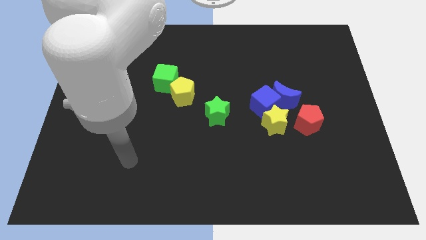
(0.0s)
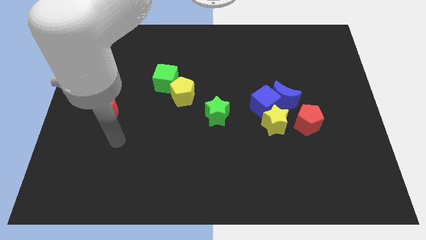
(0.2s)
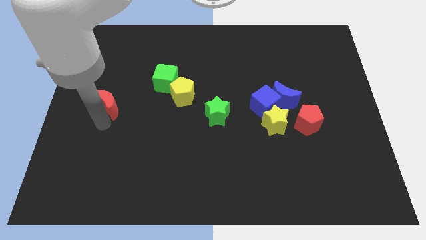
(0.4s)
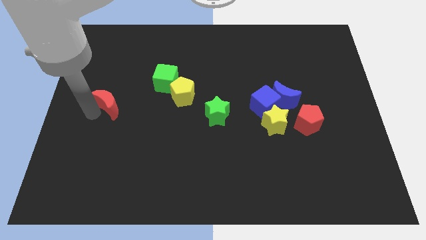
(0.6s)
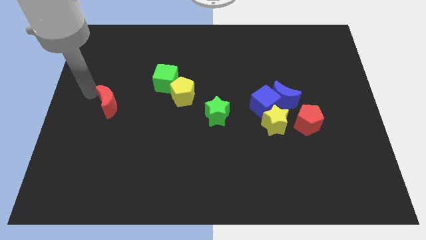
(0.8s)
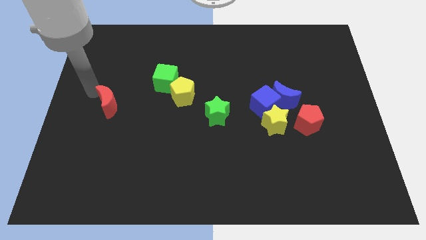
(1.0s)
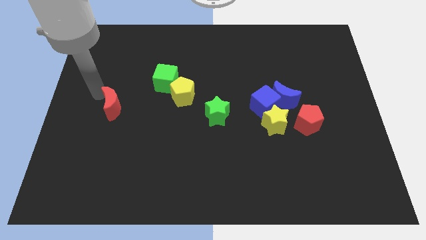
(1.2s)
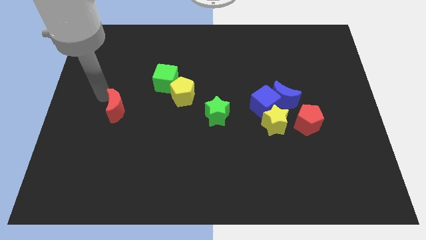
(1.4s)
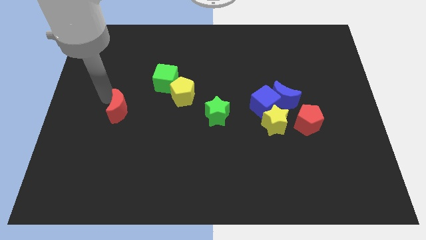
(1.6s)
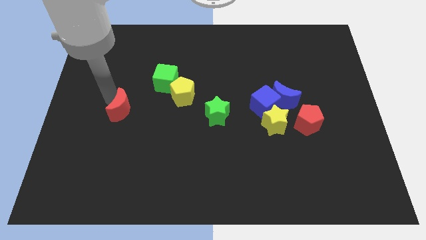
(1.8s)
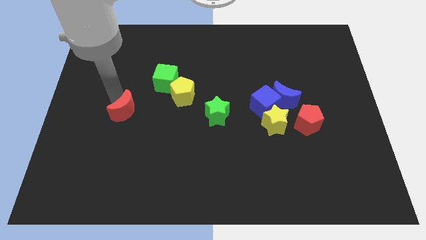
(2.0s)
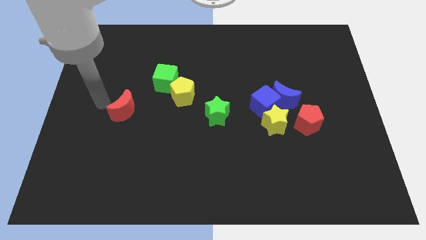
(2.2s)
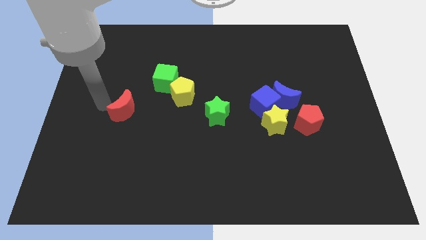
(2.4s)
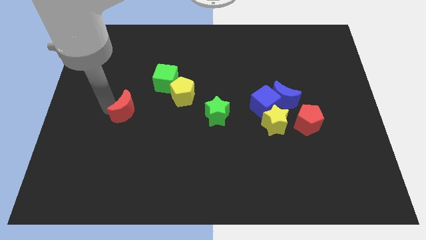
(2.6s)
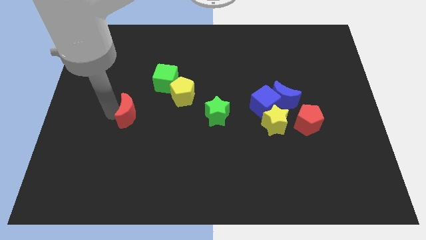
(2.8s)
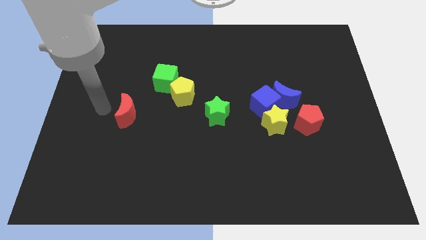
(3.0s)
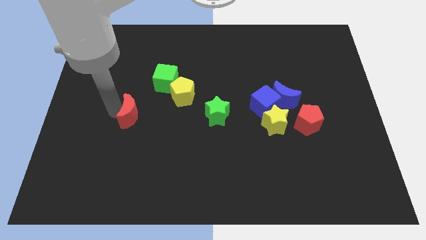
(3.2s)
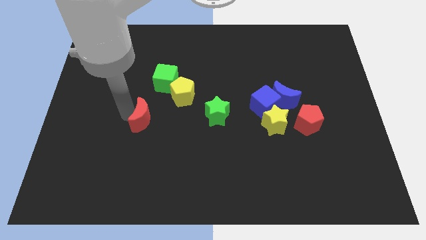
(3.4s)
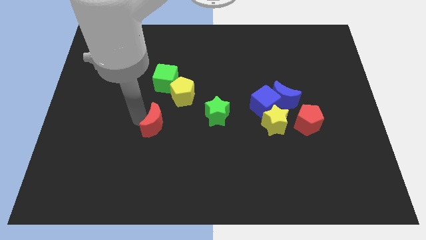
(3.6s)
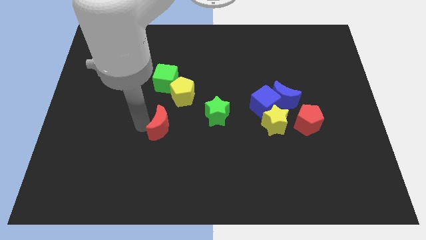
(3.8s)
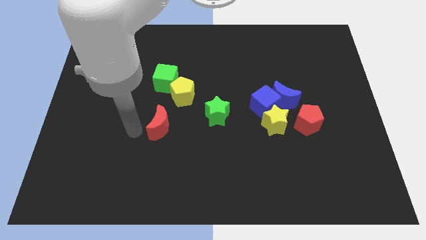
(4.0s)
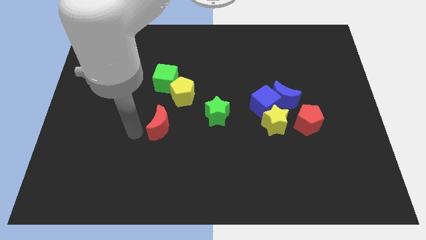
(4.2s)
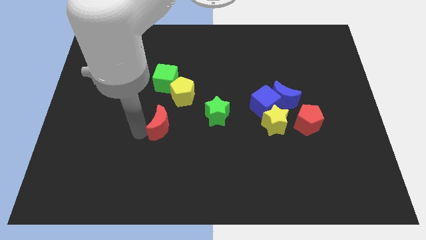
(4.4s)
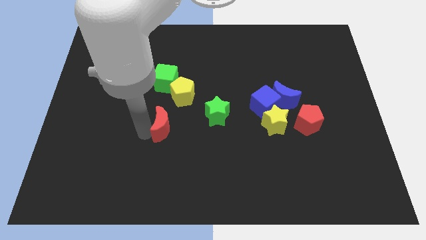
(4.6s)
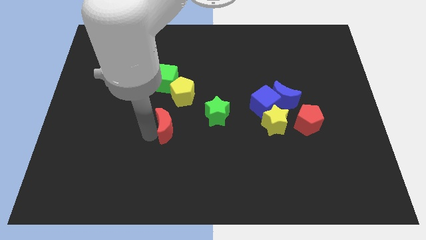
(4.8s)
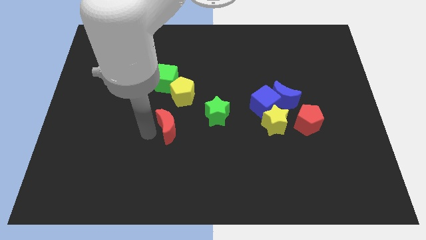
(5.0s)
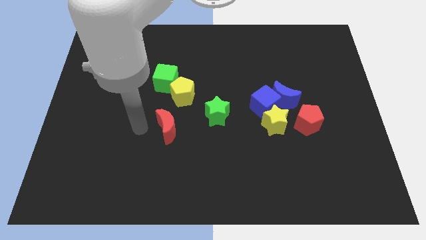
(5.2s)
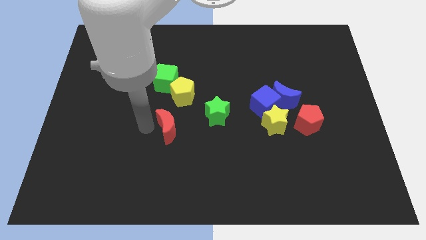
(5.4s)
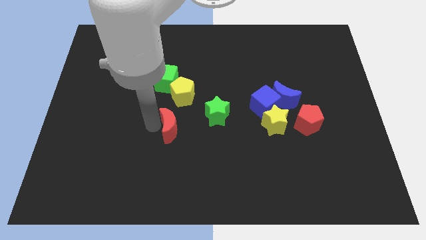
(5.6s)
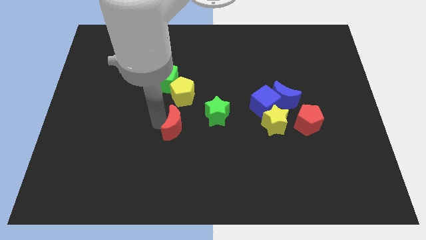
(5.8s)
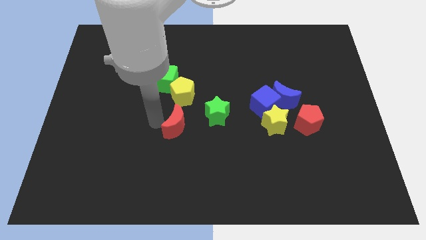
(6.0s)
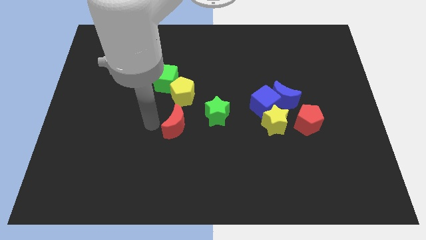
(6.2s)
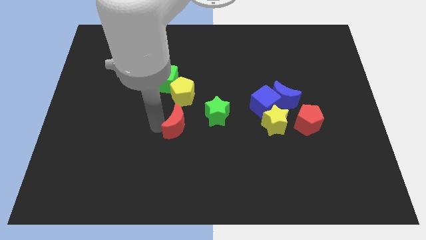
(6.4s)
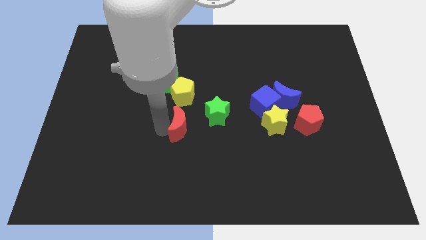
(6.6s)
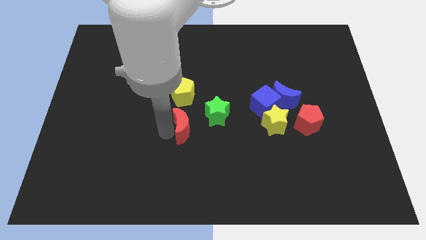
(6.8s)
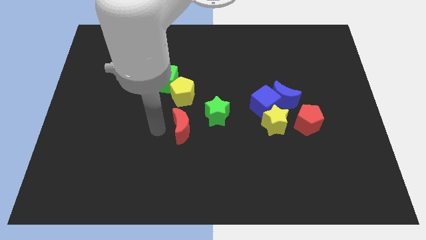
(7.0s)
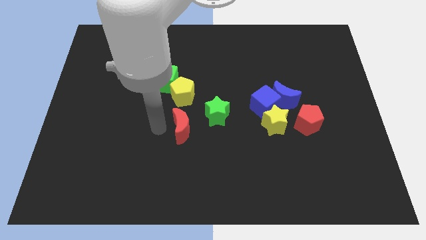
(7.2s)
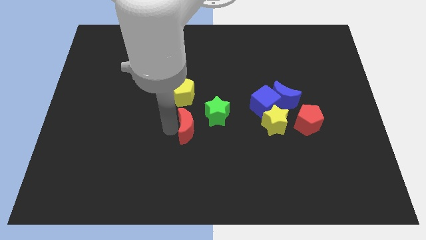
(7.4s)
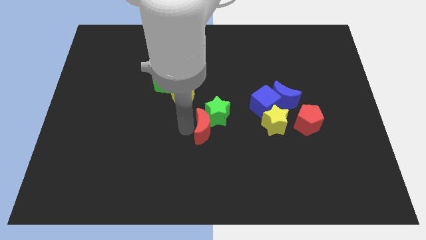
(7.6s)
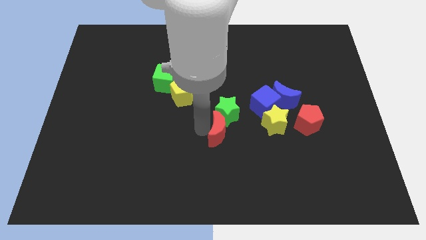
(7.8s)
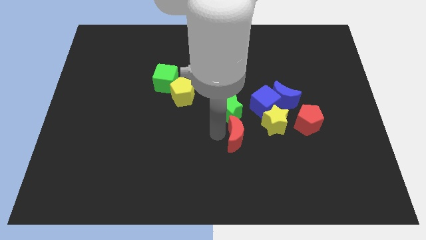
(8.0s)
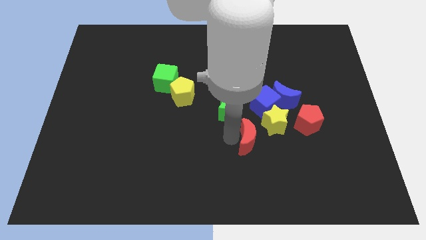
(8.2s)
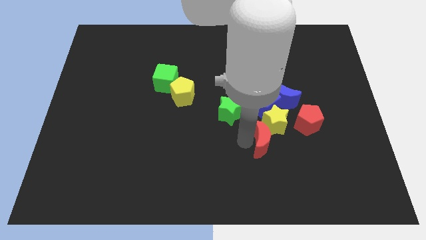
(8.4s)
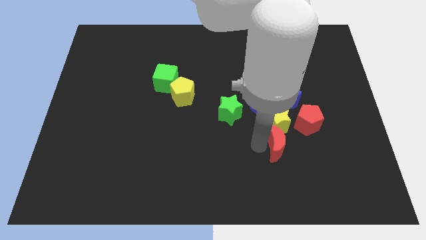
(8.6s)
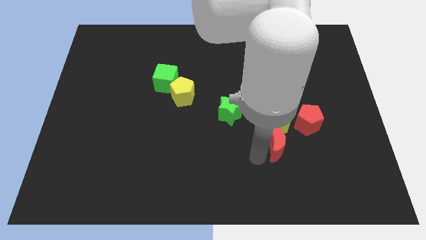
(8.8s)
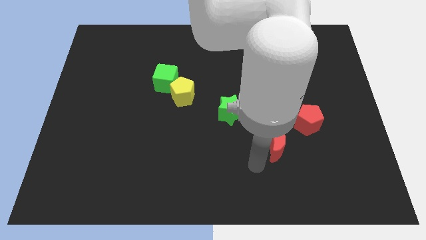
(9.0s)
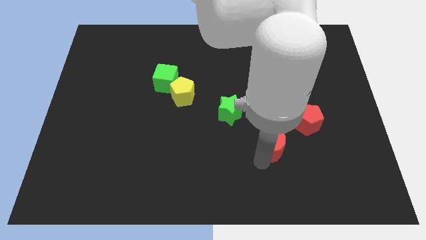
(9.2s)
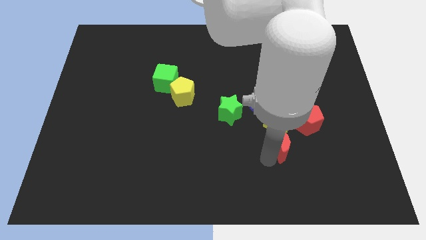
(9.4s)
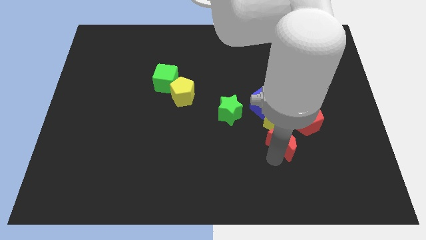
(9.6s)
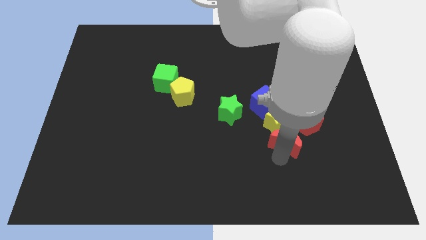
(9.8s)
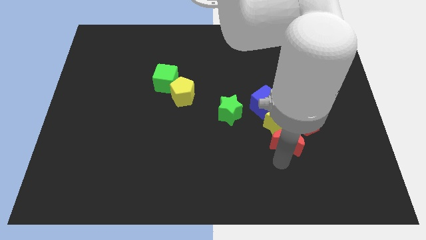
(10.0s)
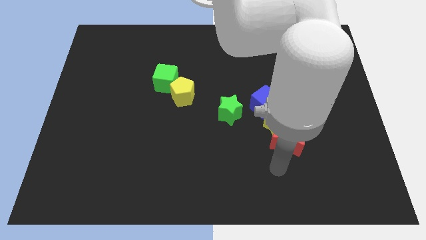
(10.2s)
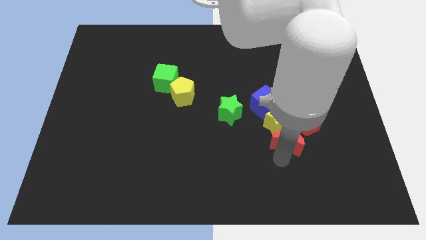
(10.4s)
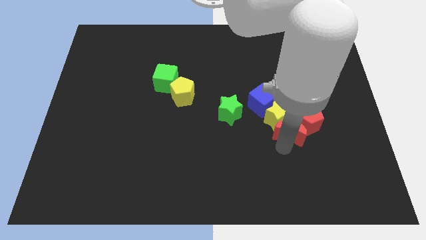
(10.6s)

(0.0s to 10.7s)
move the red moon close to the red pentagon

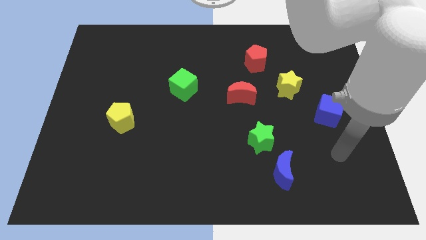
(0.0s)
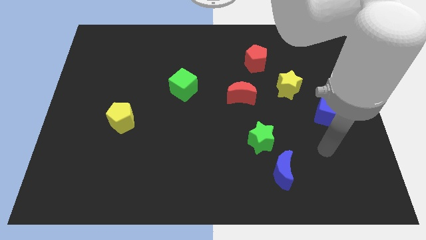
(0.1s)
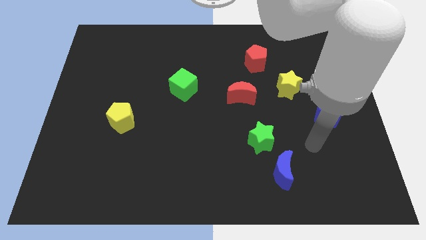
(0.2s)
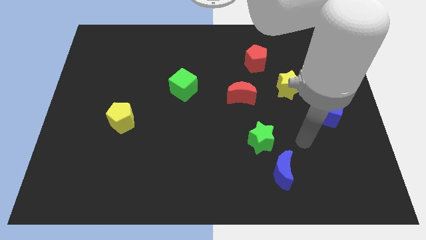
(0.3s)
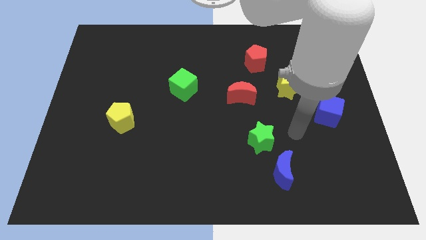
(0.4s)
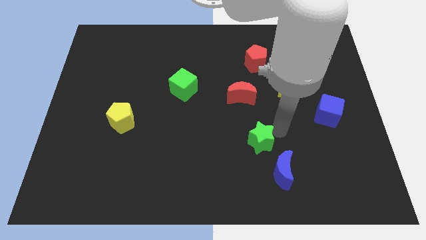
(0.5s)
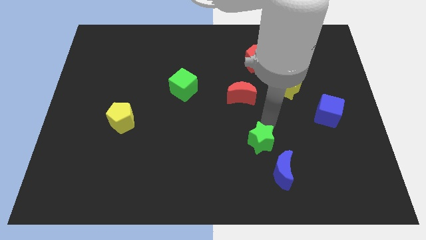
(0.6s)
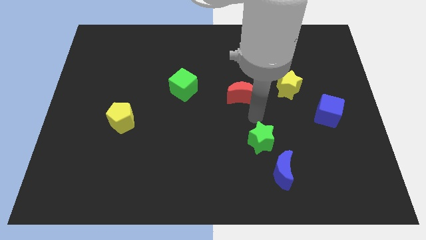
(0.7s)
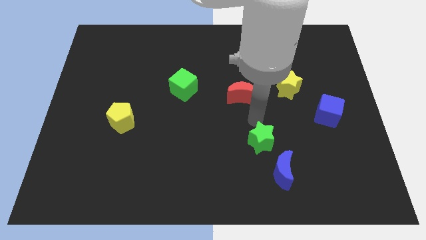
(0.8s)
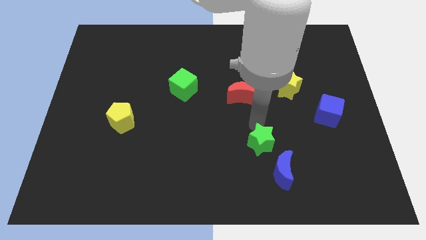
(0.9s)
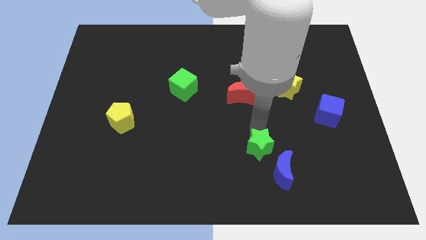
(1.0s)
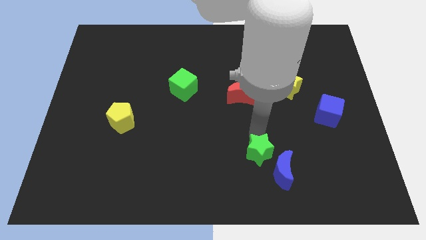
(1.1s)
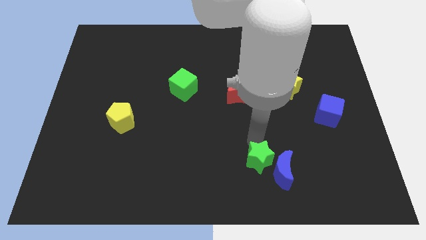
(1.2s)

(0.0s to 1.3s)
push the green star to the blue moon

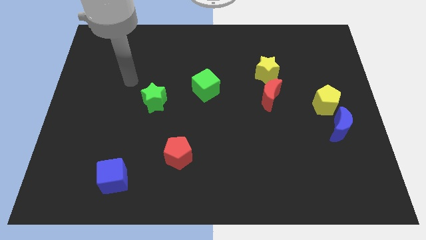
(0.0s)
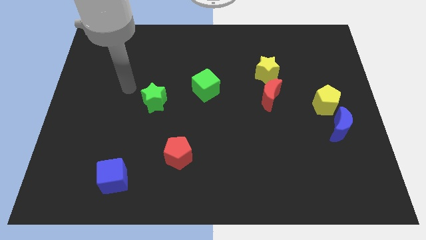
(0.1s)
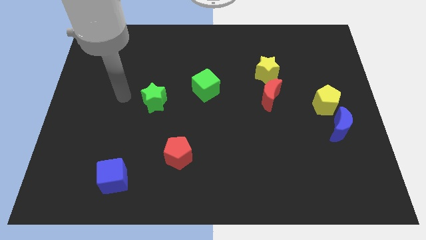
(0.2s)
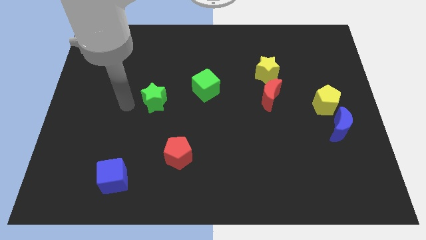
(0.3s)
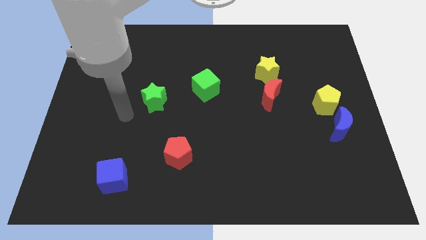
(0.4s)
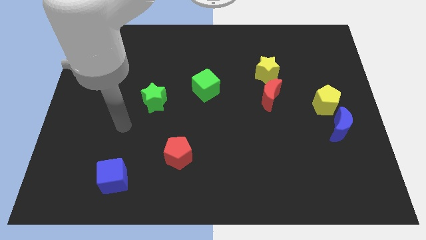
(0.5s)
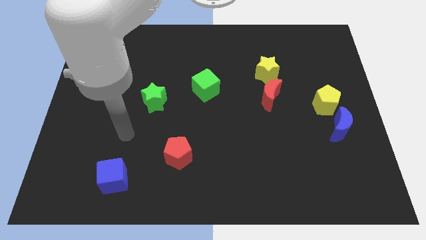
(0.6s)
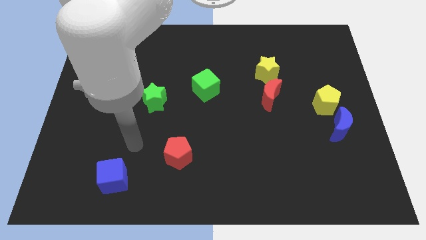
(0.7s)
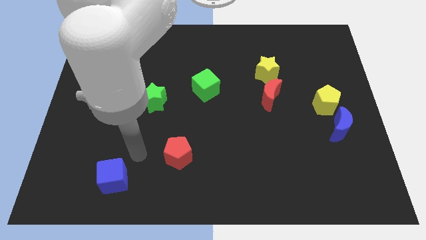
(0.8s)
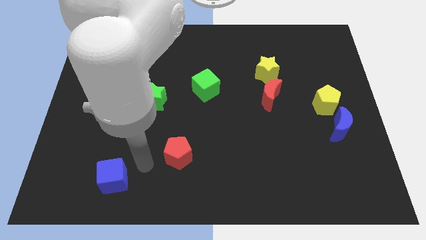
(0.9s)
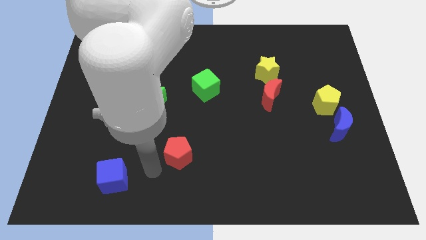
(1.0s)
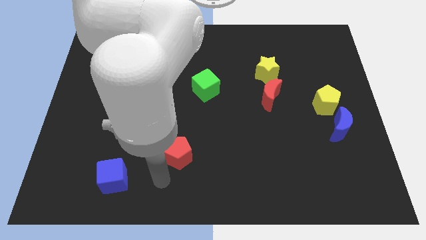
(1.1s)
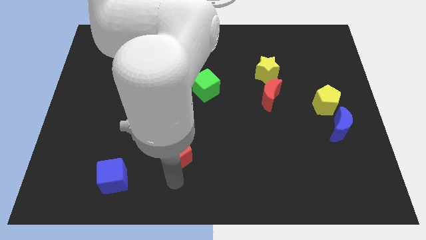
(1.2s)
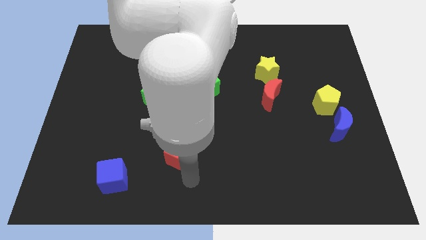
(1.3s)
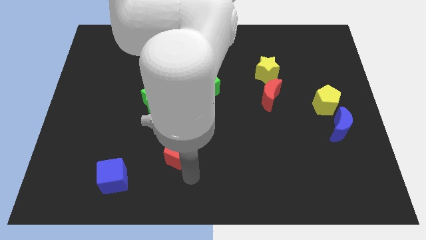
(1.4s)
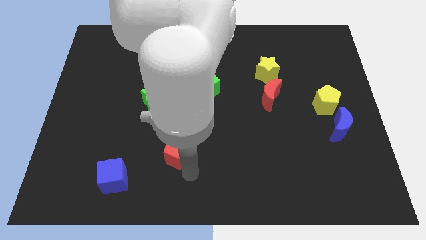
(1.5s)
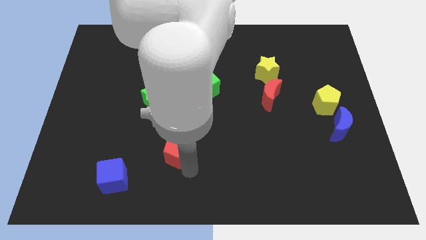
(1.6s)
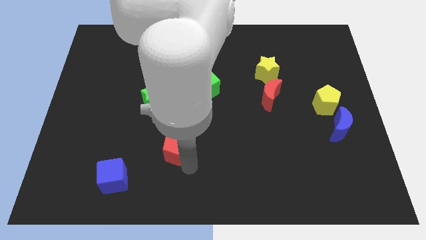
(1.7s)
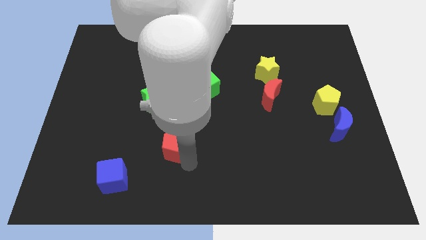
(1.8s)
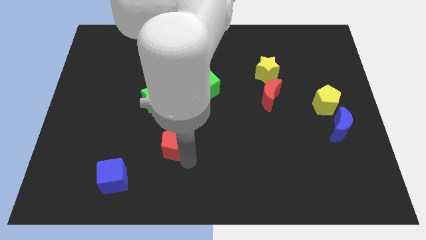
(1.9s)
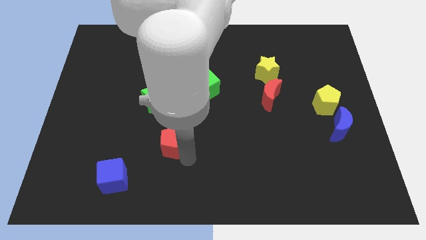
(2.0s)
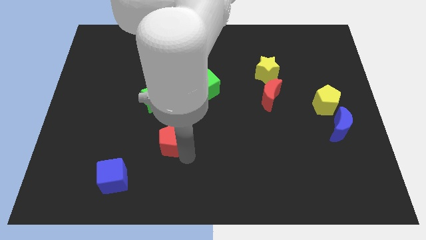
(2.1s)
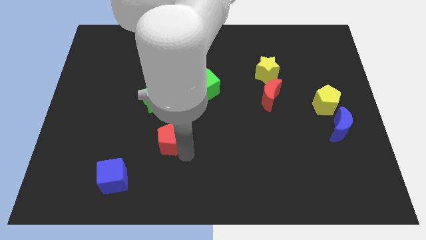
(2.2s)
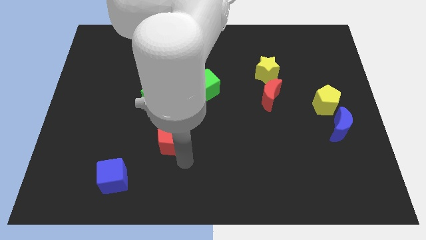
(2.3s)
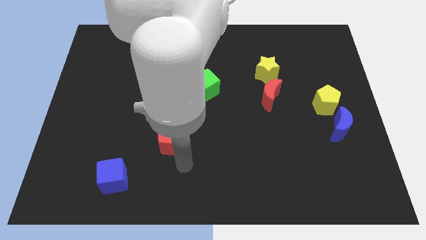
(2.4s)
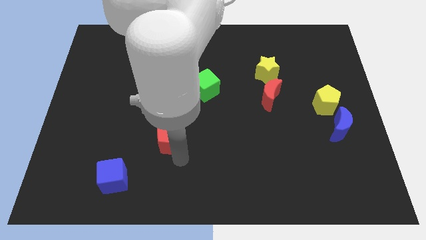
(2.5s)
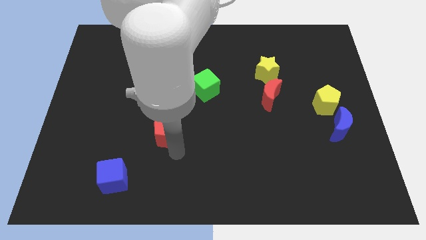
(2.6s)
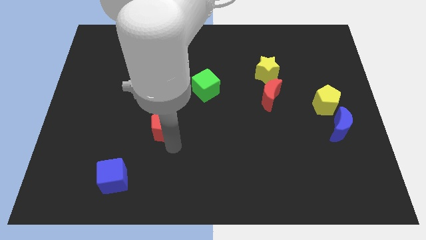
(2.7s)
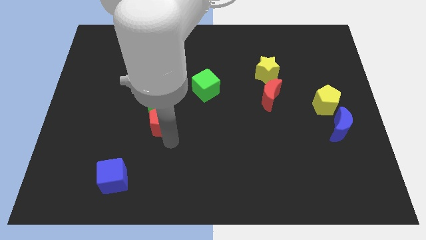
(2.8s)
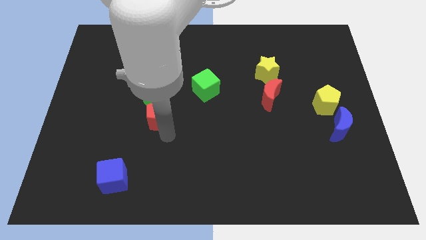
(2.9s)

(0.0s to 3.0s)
put the red pentagon towards the green star
